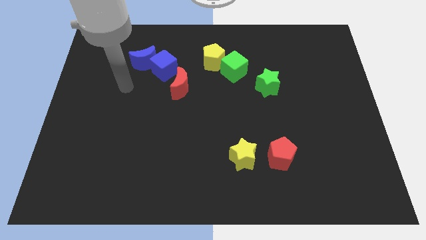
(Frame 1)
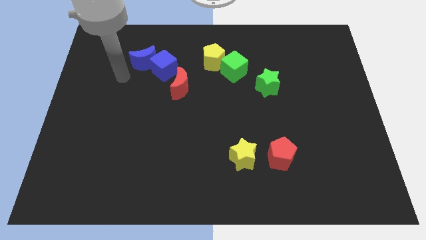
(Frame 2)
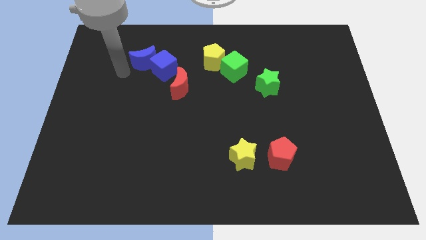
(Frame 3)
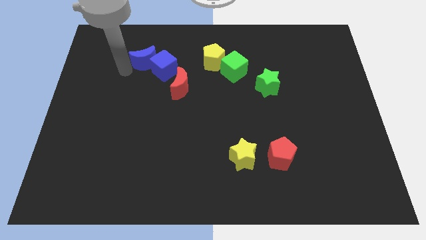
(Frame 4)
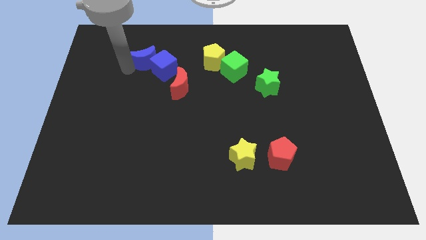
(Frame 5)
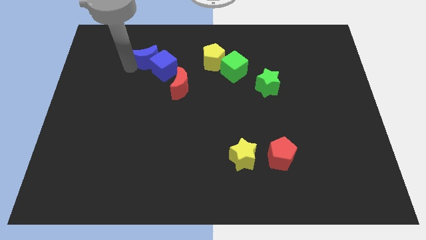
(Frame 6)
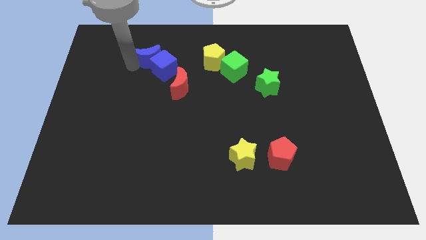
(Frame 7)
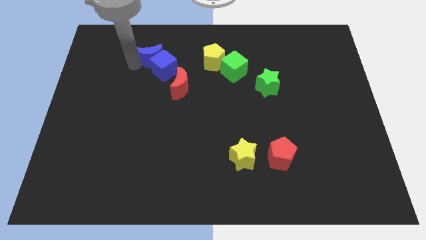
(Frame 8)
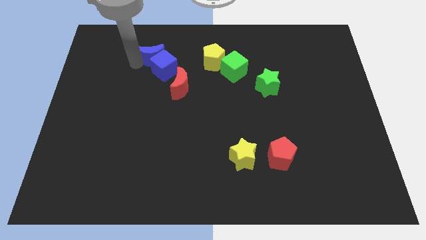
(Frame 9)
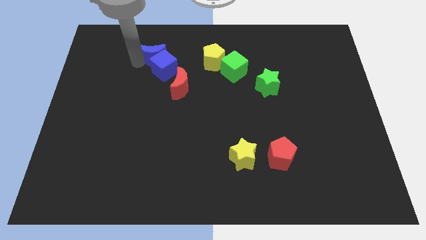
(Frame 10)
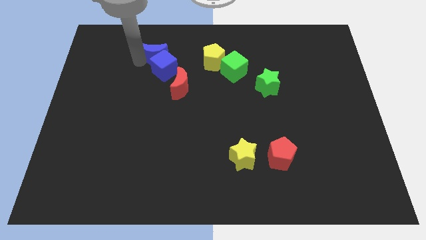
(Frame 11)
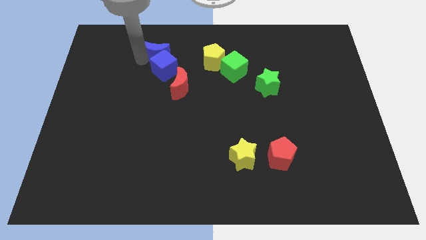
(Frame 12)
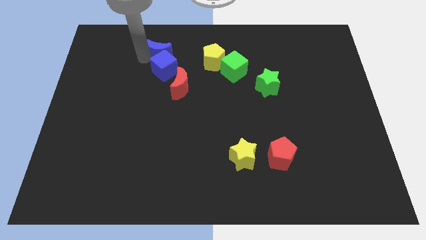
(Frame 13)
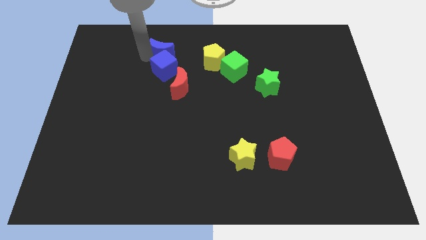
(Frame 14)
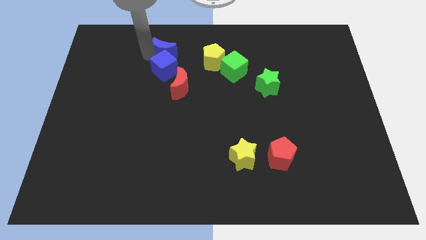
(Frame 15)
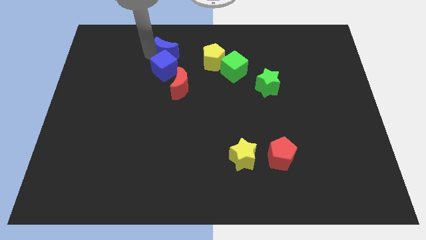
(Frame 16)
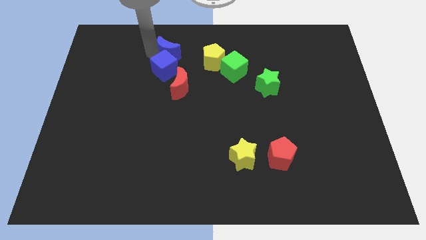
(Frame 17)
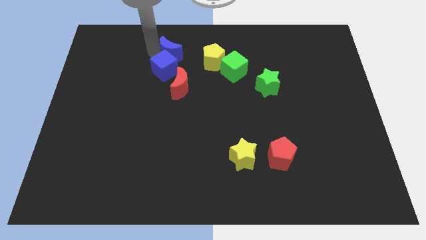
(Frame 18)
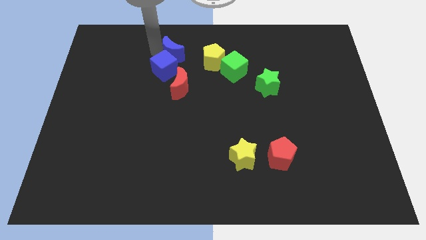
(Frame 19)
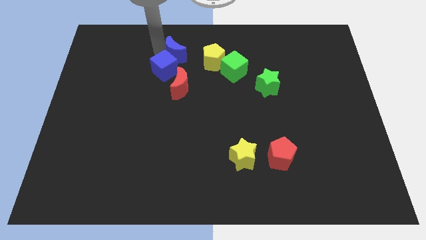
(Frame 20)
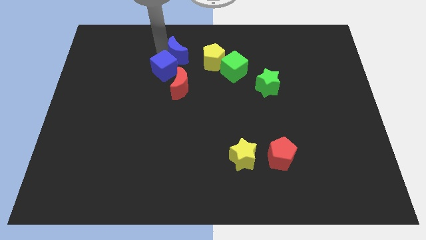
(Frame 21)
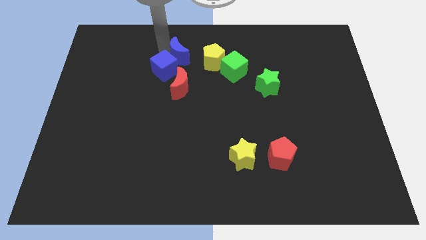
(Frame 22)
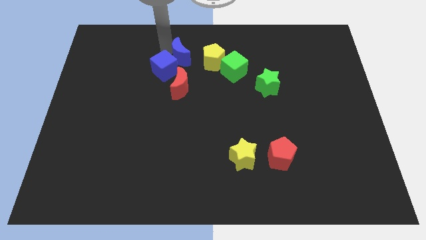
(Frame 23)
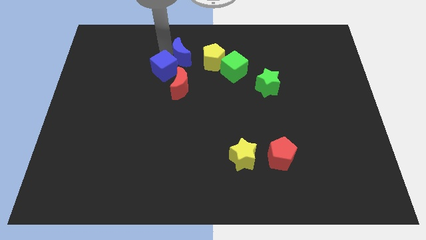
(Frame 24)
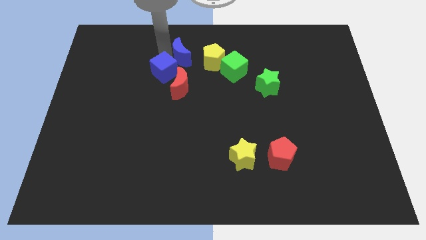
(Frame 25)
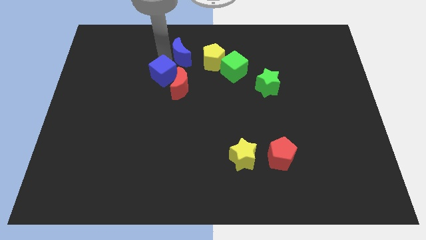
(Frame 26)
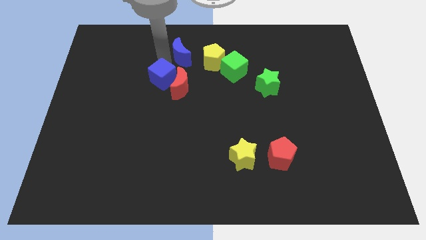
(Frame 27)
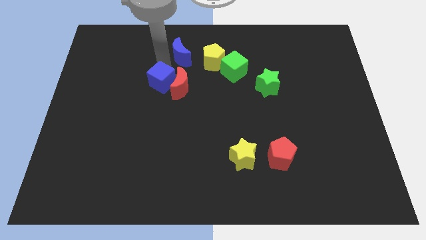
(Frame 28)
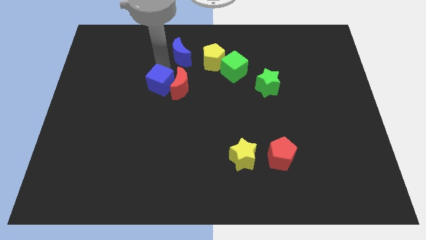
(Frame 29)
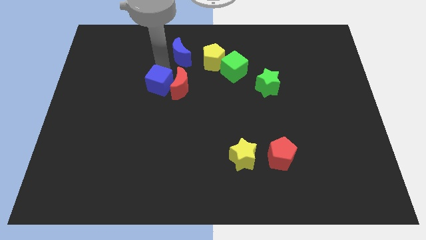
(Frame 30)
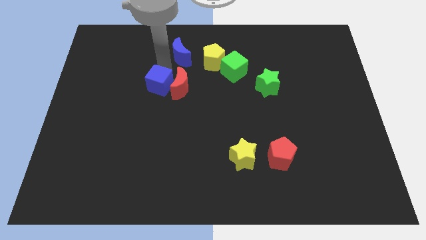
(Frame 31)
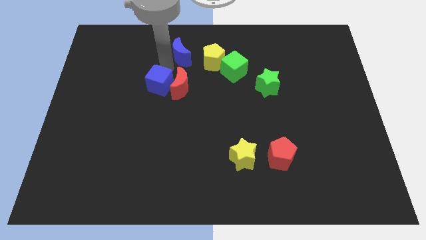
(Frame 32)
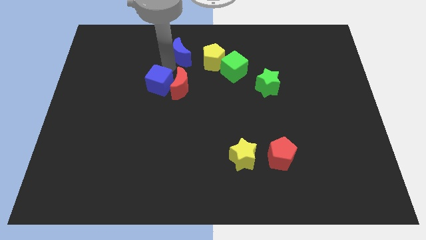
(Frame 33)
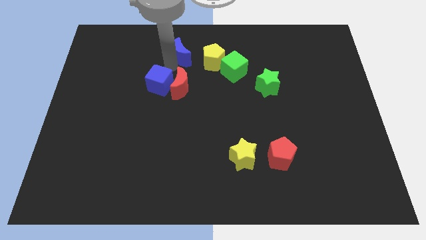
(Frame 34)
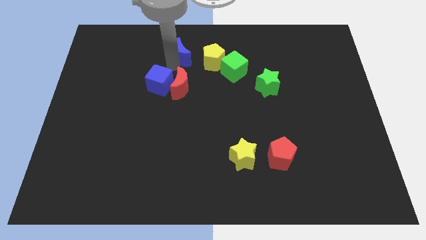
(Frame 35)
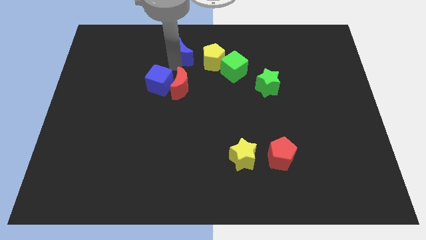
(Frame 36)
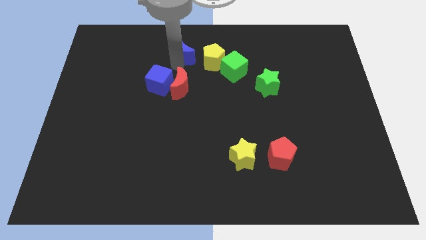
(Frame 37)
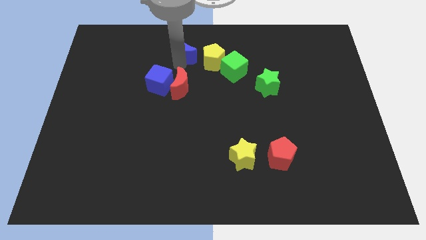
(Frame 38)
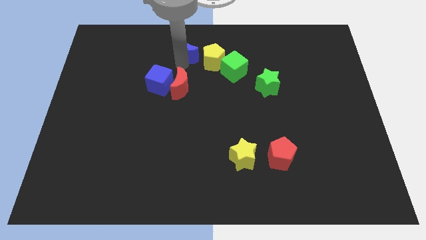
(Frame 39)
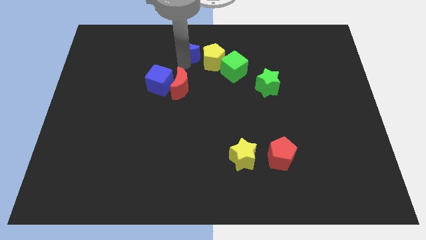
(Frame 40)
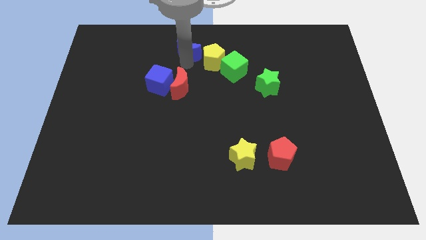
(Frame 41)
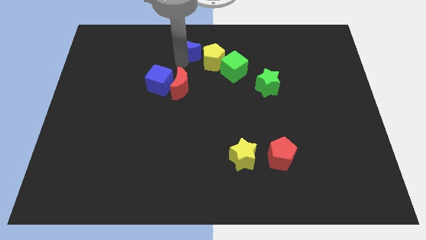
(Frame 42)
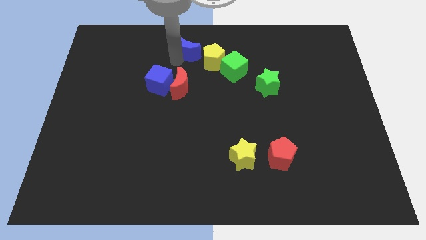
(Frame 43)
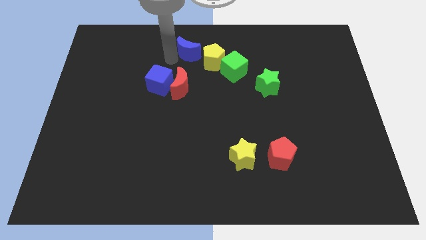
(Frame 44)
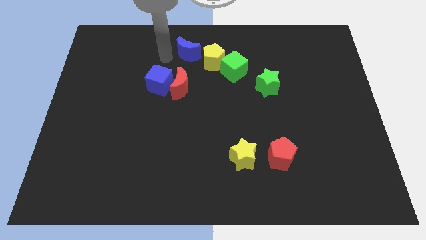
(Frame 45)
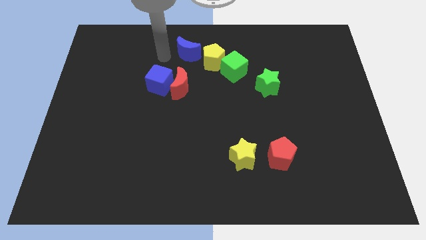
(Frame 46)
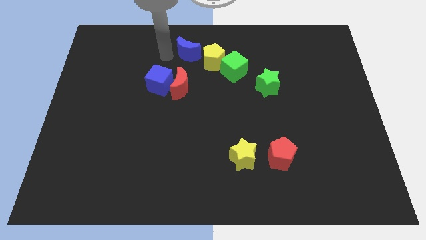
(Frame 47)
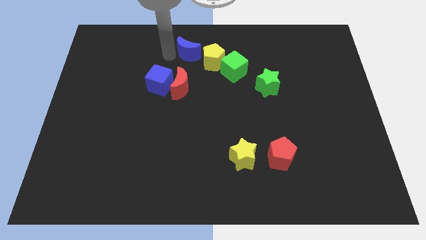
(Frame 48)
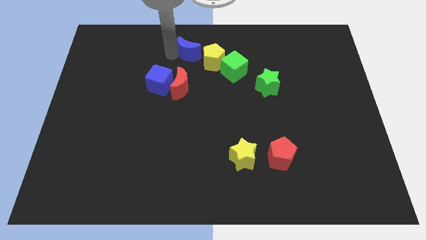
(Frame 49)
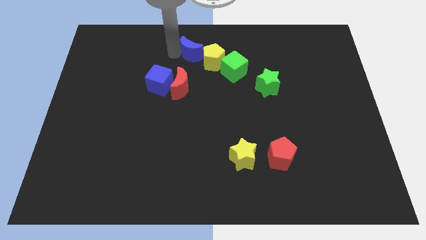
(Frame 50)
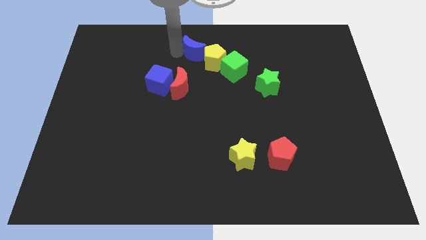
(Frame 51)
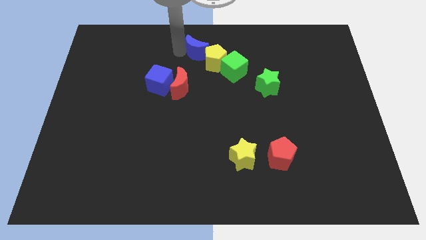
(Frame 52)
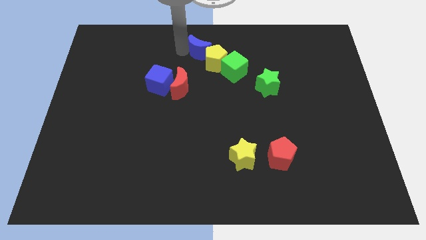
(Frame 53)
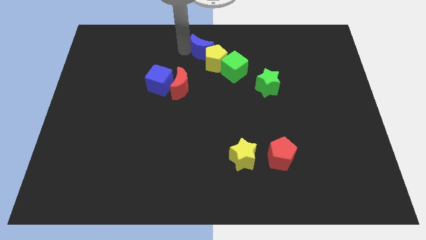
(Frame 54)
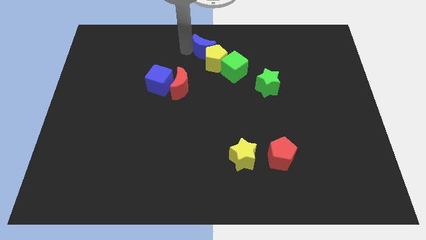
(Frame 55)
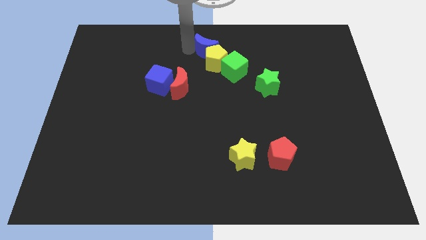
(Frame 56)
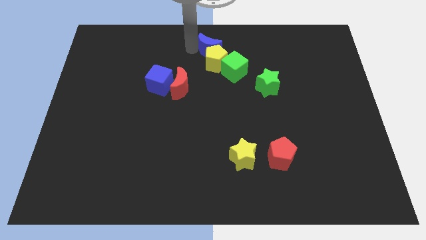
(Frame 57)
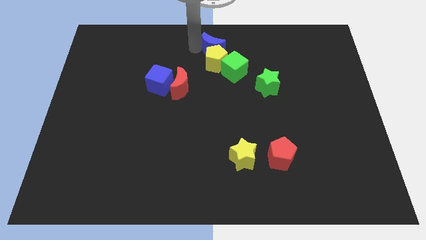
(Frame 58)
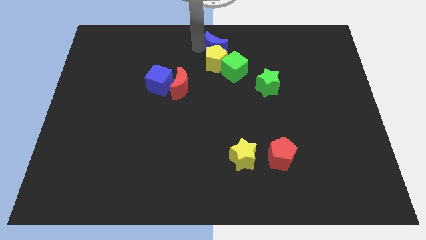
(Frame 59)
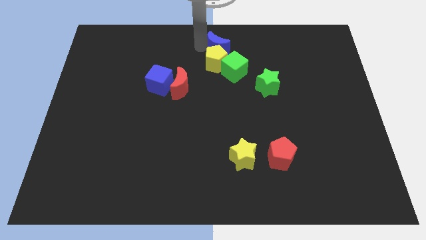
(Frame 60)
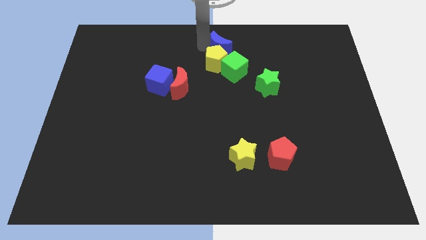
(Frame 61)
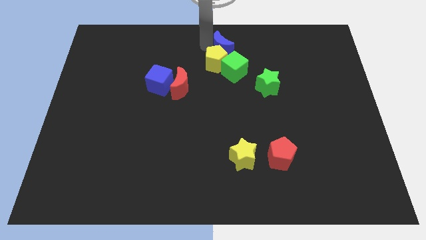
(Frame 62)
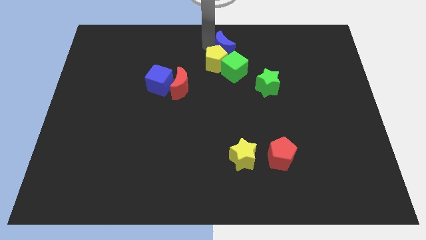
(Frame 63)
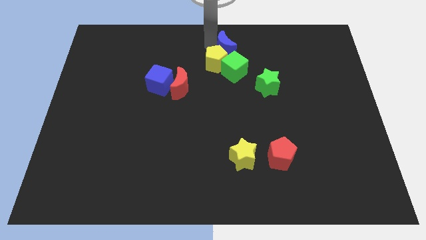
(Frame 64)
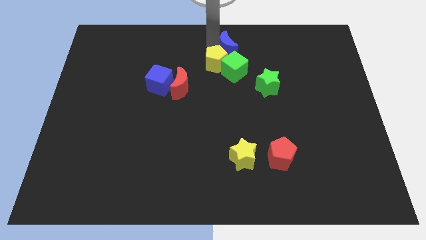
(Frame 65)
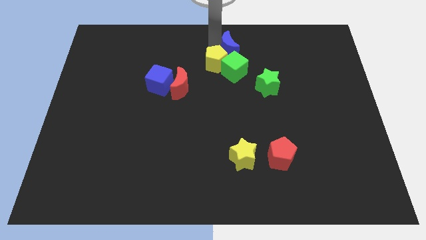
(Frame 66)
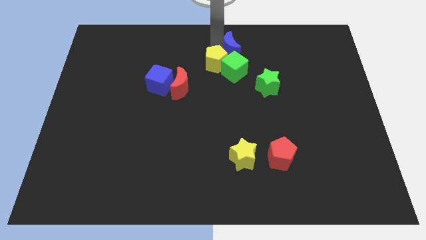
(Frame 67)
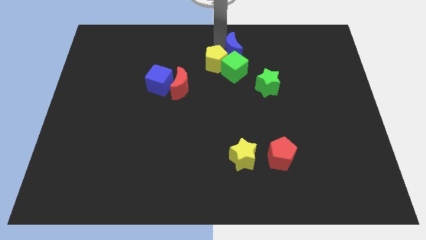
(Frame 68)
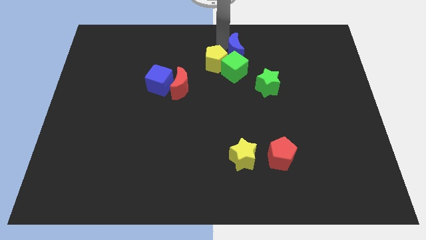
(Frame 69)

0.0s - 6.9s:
move the blue moon to the top right of the green cube
